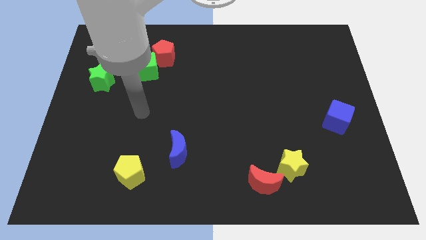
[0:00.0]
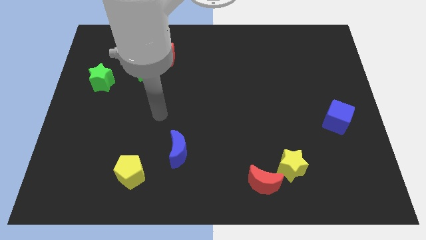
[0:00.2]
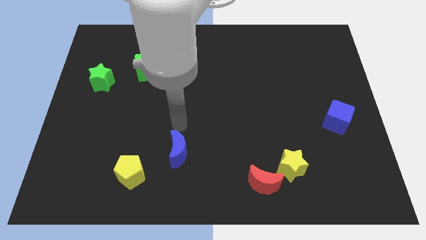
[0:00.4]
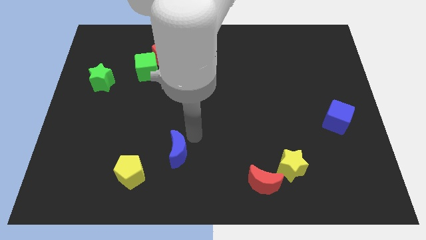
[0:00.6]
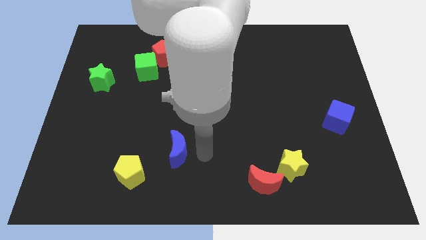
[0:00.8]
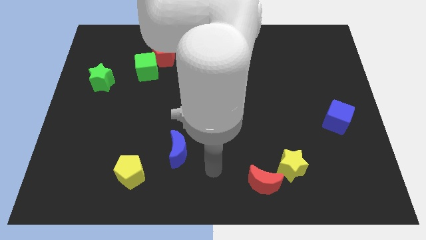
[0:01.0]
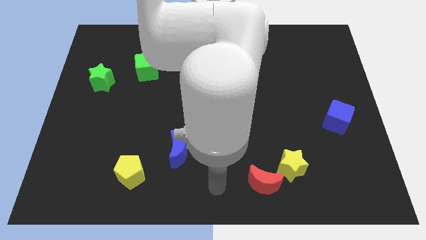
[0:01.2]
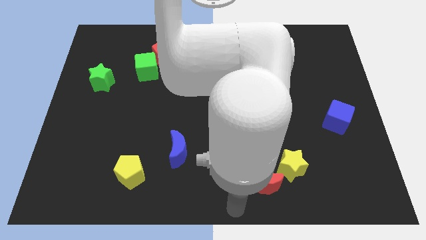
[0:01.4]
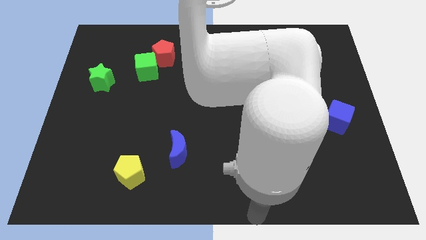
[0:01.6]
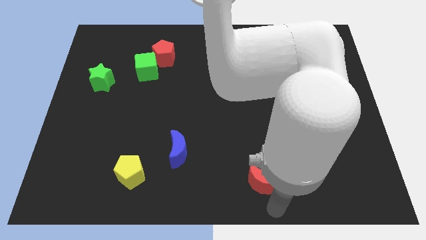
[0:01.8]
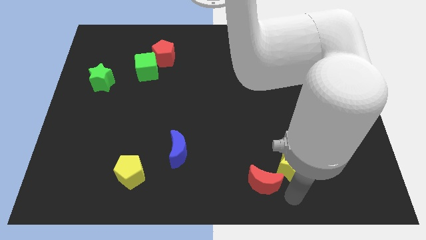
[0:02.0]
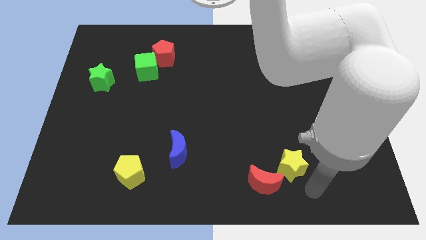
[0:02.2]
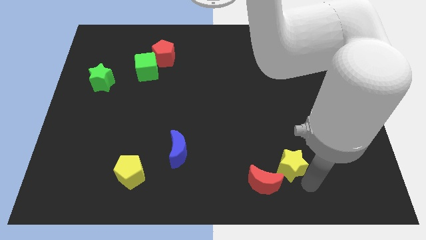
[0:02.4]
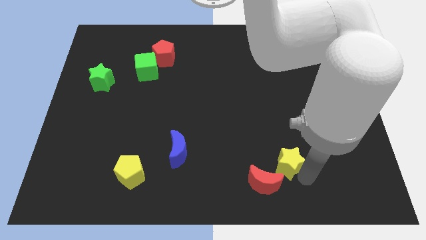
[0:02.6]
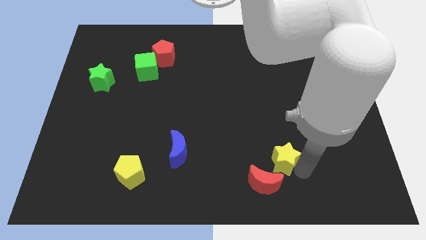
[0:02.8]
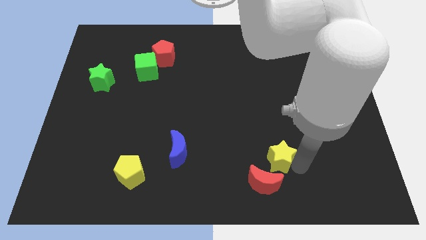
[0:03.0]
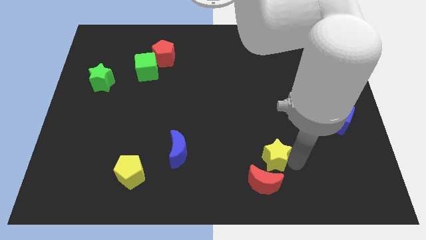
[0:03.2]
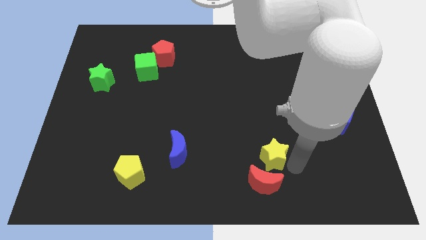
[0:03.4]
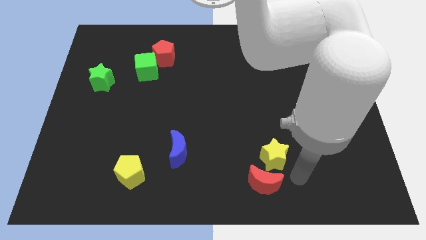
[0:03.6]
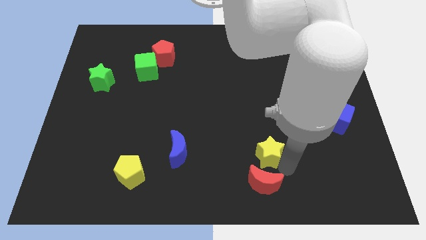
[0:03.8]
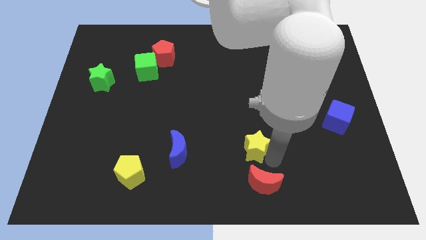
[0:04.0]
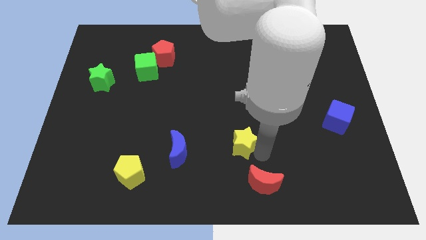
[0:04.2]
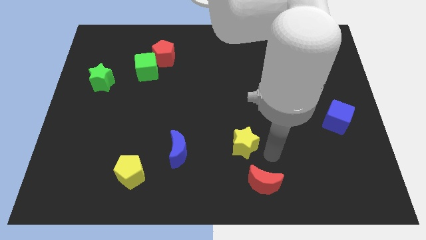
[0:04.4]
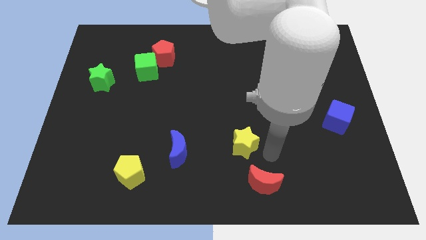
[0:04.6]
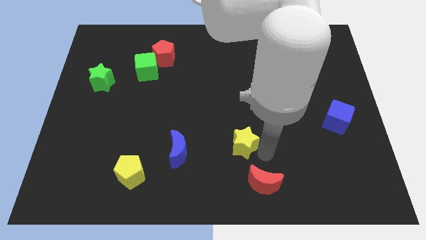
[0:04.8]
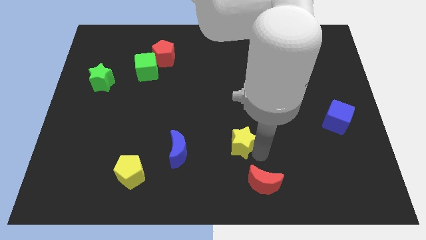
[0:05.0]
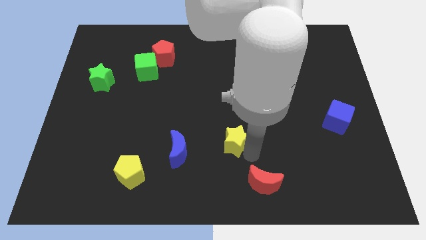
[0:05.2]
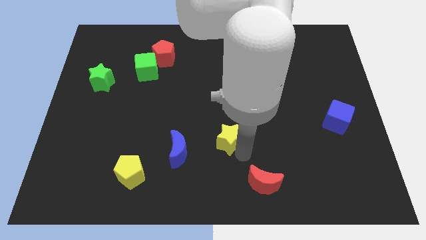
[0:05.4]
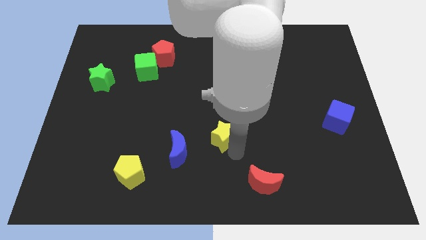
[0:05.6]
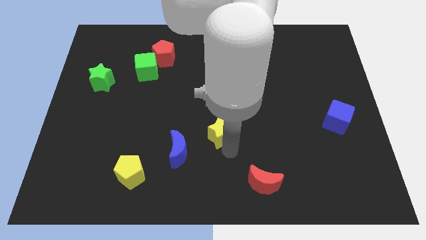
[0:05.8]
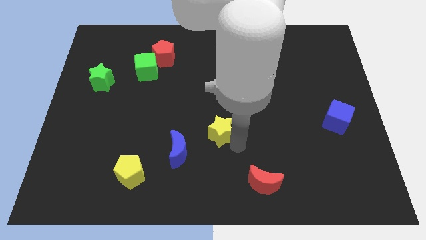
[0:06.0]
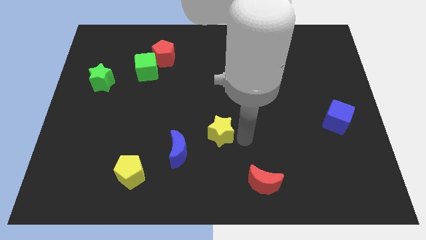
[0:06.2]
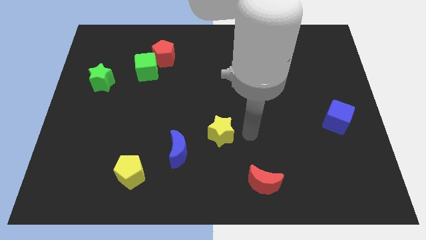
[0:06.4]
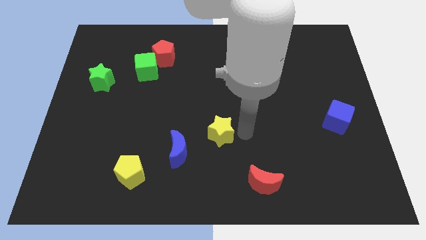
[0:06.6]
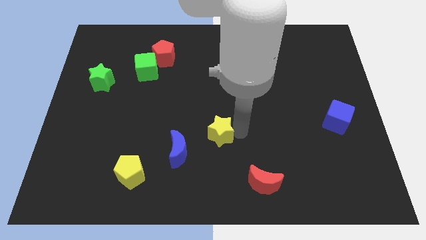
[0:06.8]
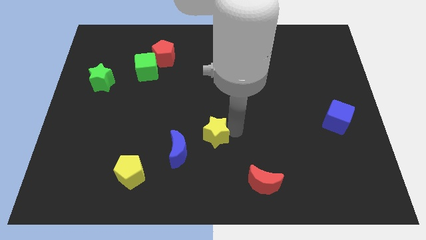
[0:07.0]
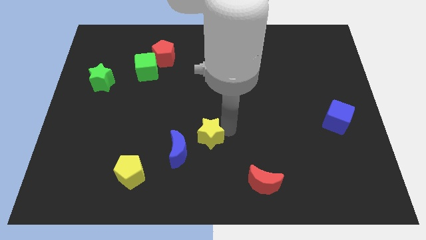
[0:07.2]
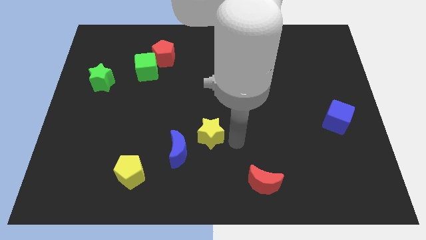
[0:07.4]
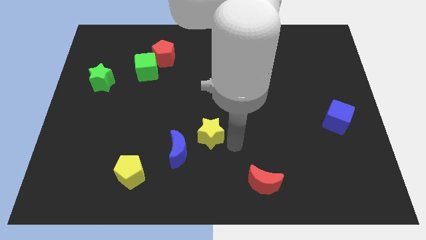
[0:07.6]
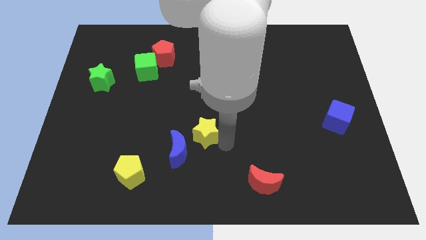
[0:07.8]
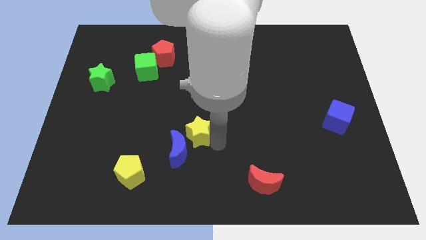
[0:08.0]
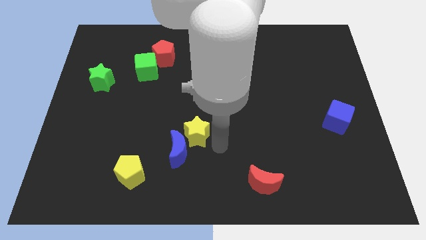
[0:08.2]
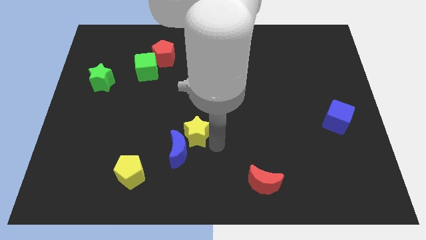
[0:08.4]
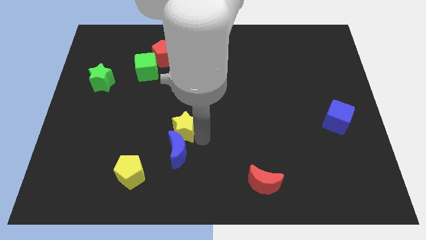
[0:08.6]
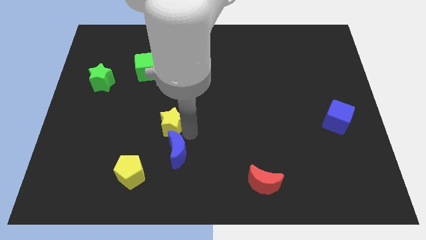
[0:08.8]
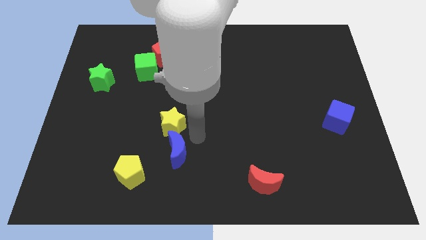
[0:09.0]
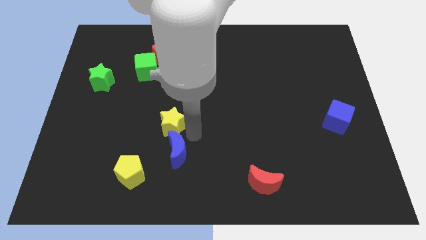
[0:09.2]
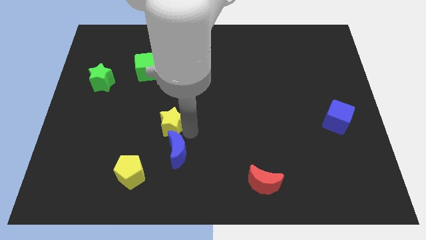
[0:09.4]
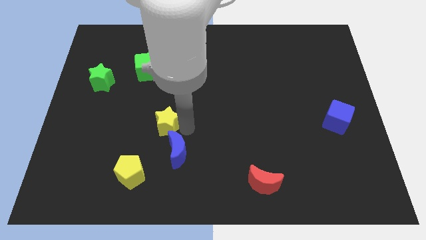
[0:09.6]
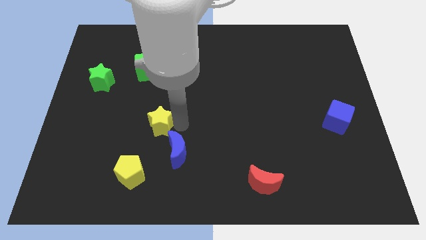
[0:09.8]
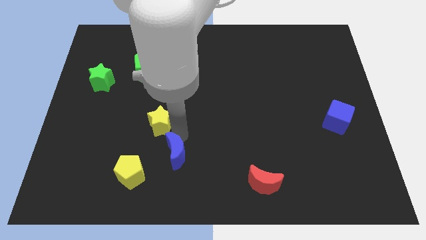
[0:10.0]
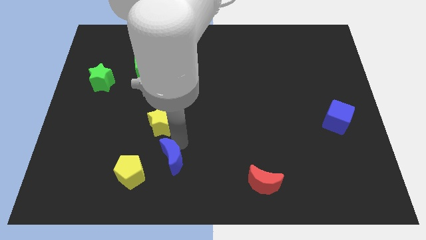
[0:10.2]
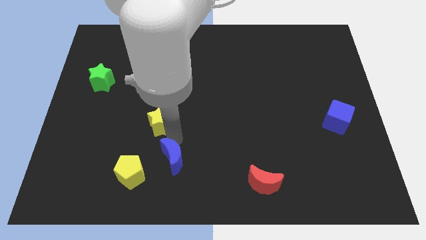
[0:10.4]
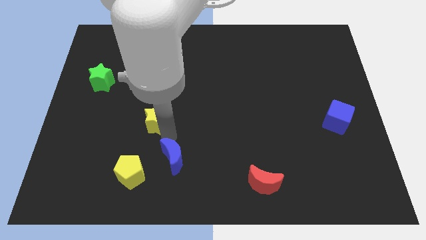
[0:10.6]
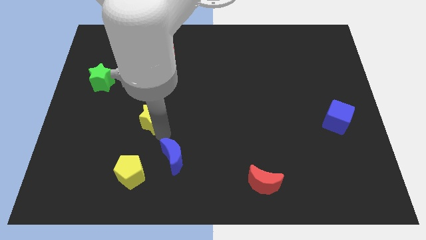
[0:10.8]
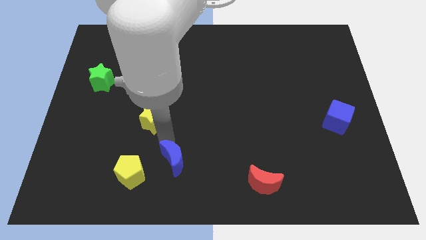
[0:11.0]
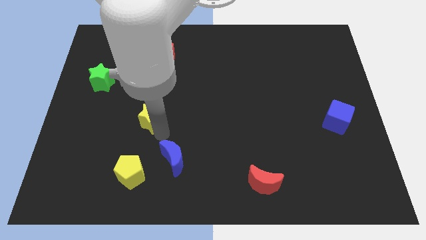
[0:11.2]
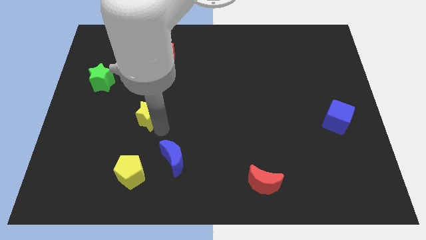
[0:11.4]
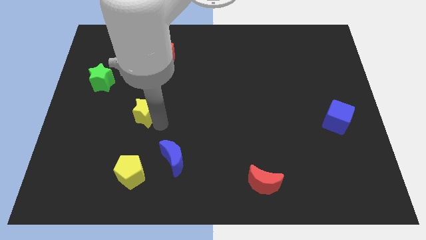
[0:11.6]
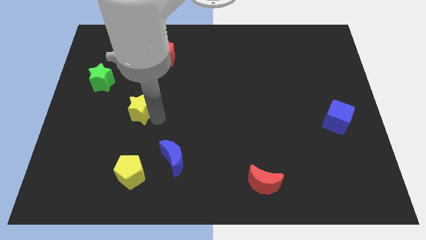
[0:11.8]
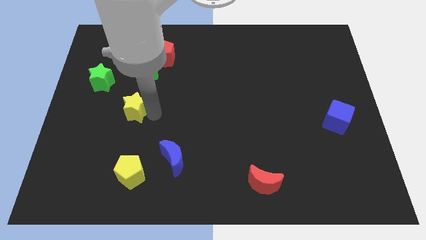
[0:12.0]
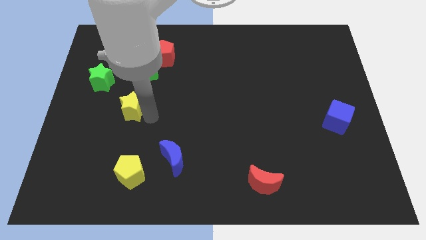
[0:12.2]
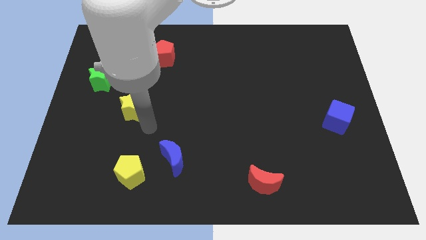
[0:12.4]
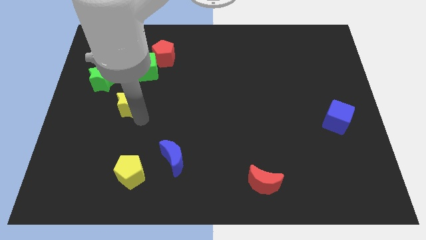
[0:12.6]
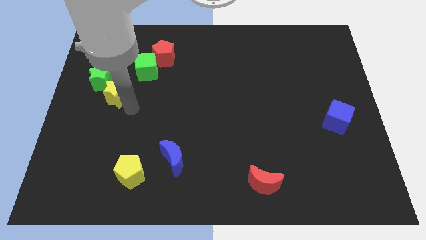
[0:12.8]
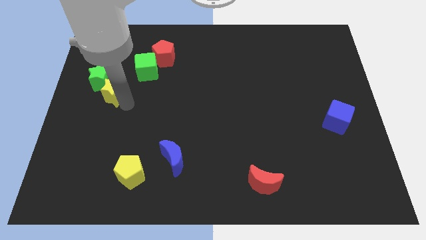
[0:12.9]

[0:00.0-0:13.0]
push the yellow star to the green star

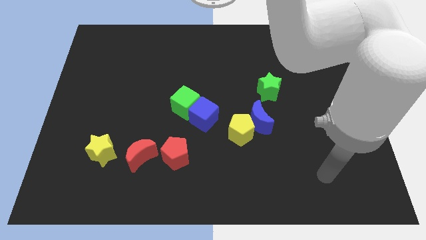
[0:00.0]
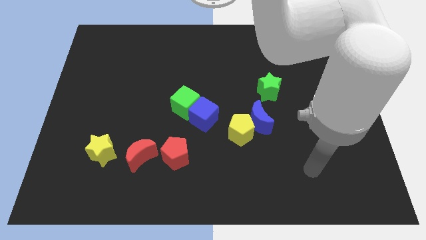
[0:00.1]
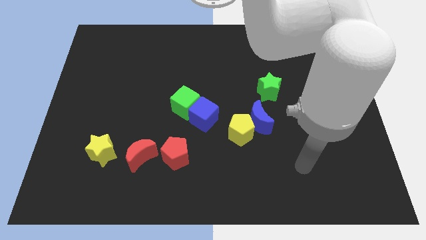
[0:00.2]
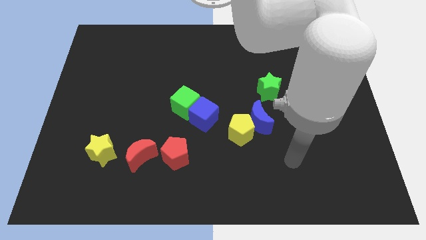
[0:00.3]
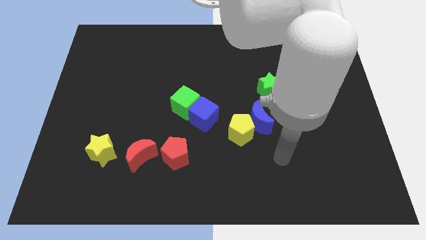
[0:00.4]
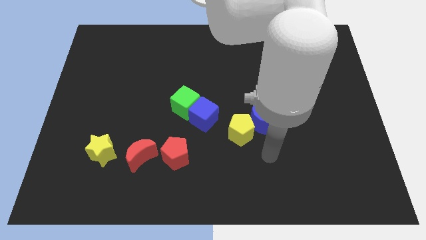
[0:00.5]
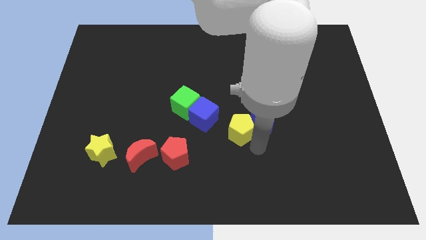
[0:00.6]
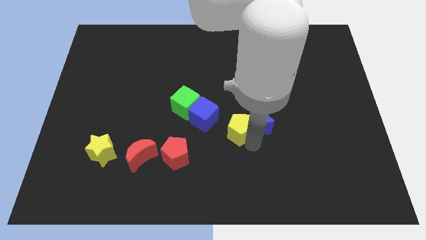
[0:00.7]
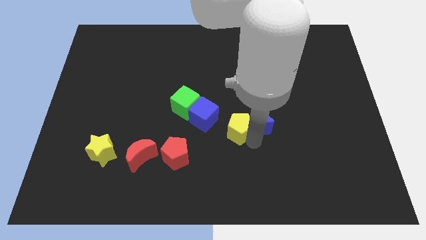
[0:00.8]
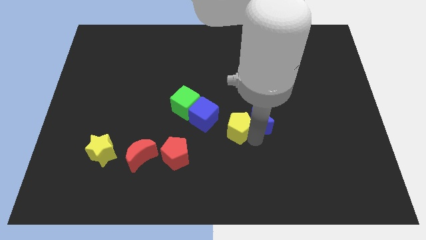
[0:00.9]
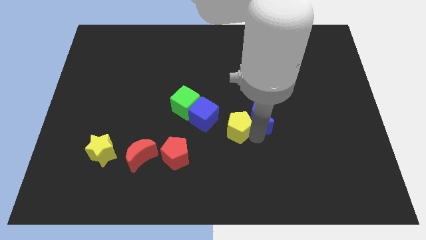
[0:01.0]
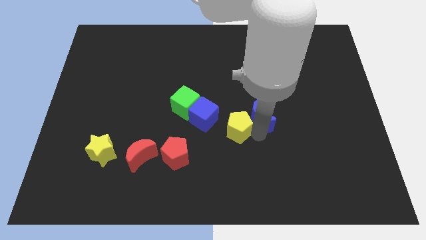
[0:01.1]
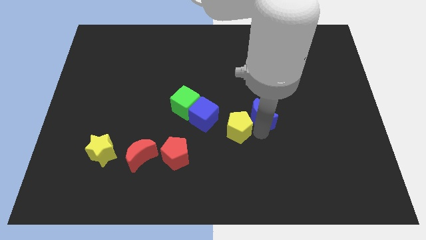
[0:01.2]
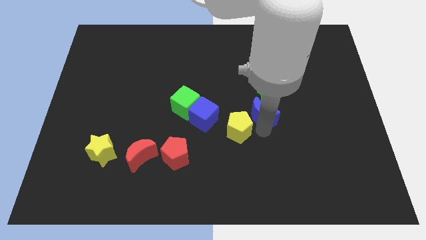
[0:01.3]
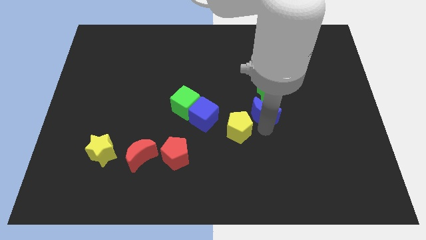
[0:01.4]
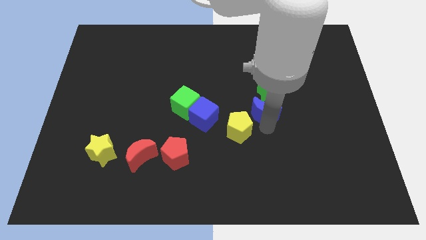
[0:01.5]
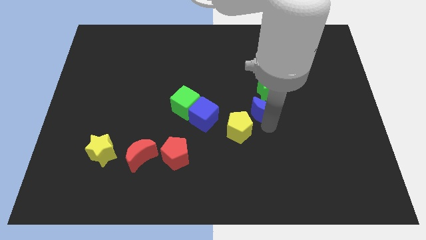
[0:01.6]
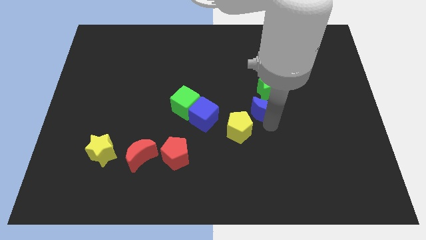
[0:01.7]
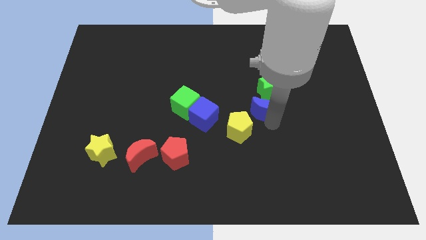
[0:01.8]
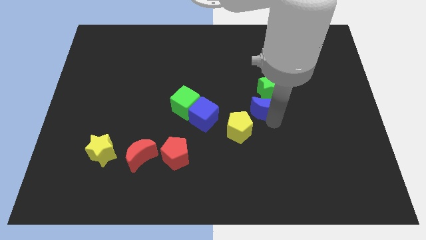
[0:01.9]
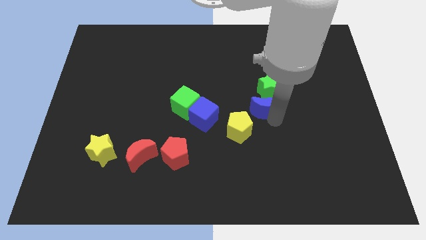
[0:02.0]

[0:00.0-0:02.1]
push the blue moon next to the green star

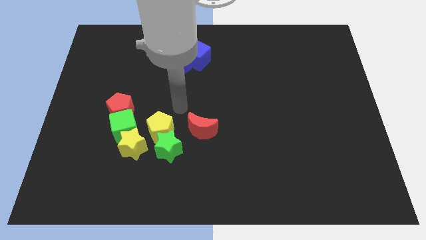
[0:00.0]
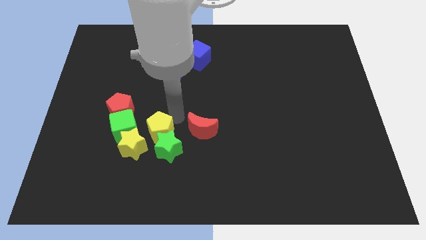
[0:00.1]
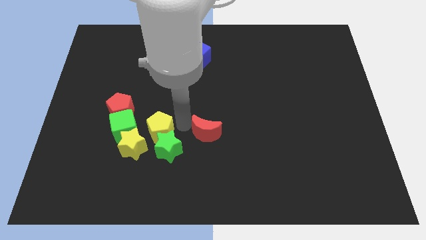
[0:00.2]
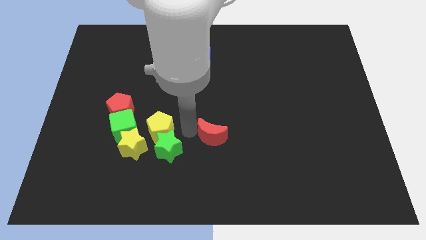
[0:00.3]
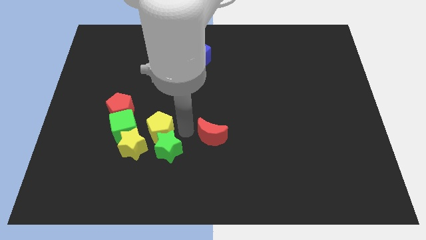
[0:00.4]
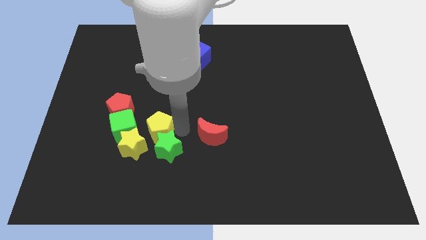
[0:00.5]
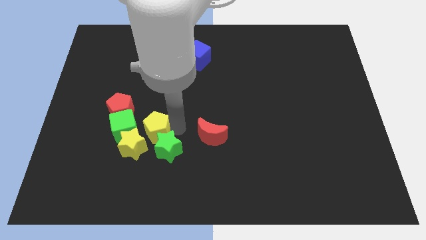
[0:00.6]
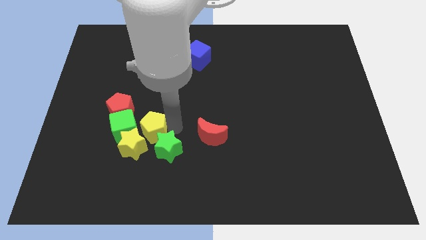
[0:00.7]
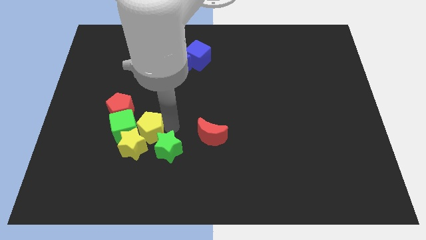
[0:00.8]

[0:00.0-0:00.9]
move the yellow pentagon towards the green cube
